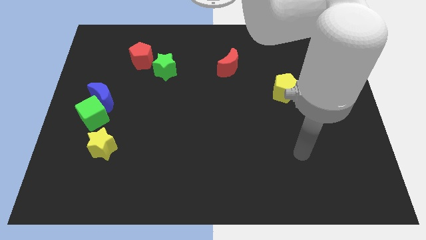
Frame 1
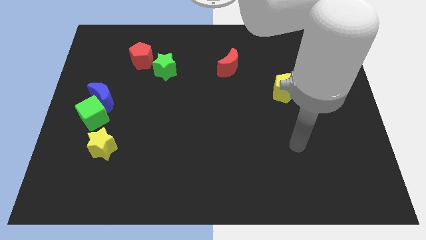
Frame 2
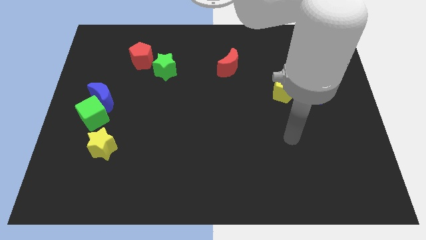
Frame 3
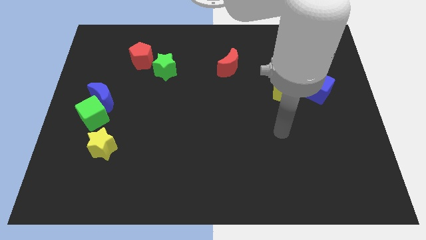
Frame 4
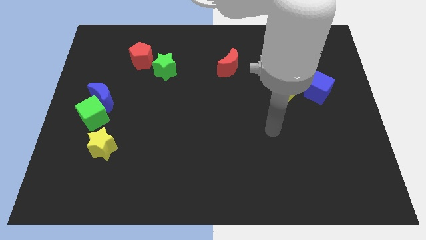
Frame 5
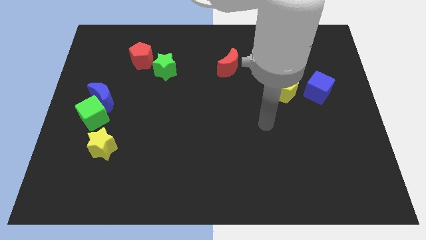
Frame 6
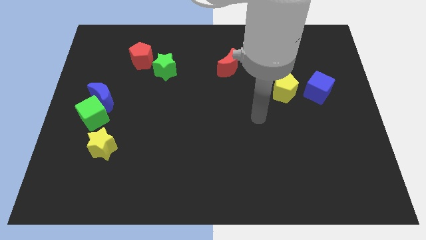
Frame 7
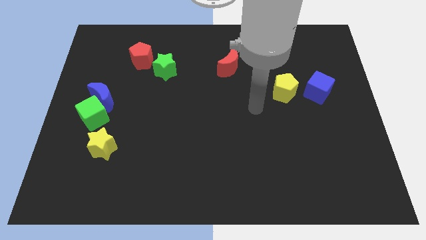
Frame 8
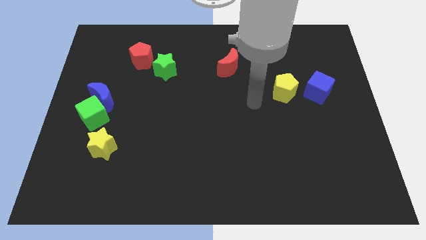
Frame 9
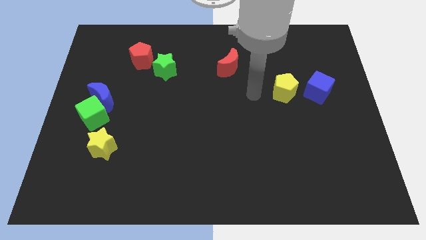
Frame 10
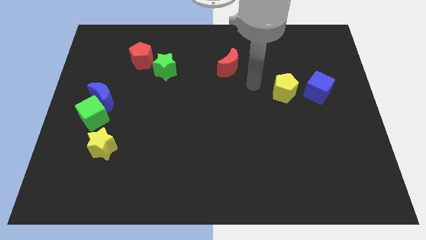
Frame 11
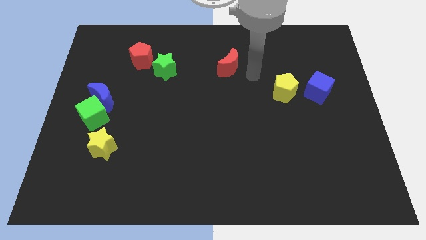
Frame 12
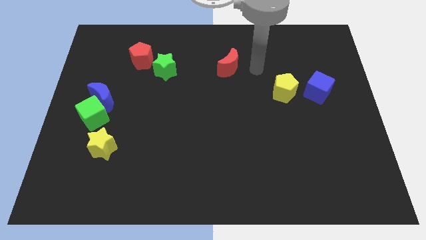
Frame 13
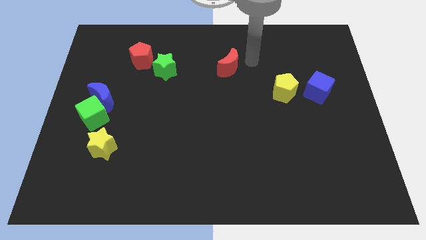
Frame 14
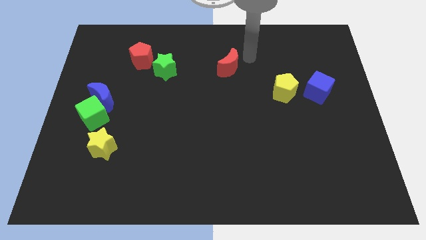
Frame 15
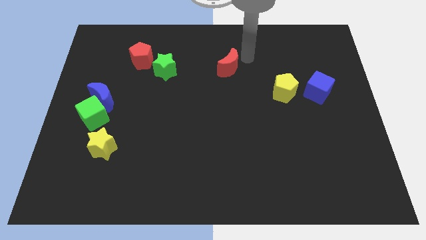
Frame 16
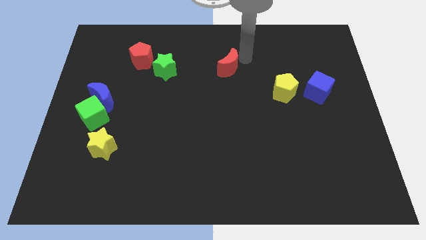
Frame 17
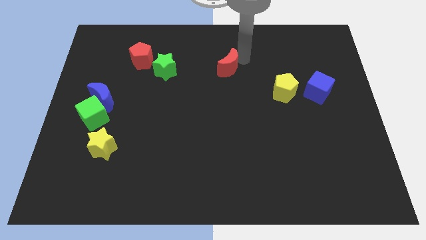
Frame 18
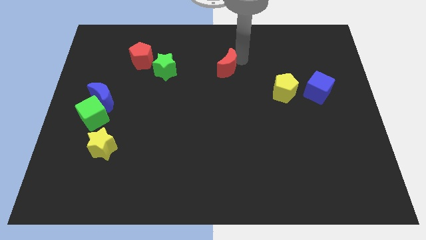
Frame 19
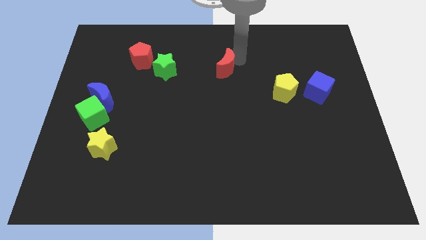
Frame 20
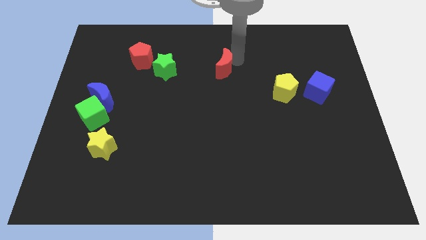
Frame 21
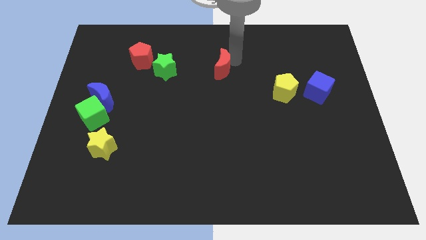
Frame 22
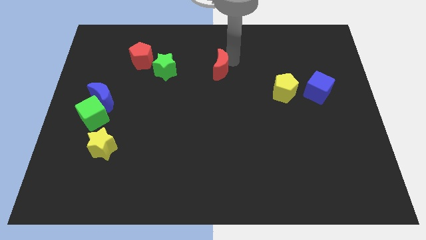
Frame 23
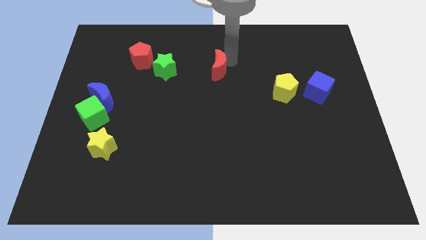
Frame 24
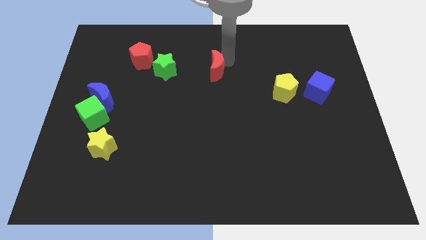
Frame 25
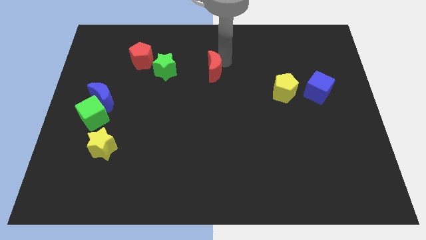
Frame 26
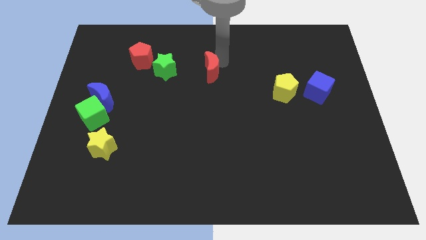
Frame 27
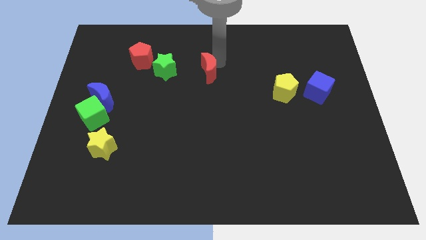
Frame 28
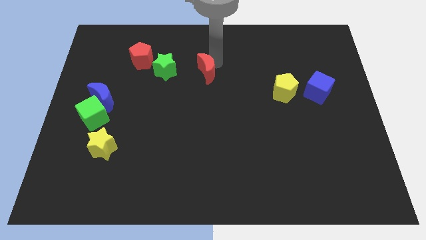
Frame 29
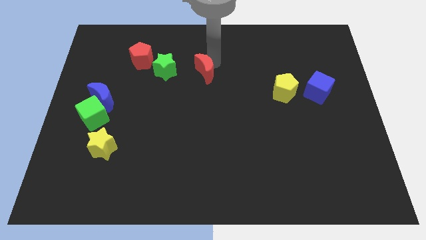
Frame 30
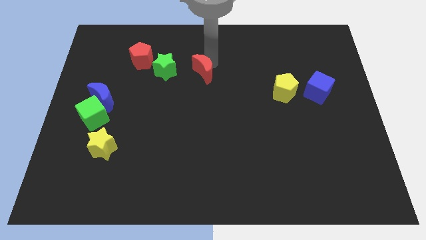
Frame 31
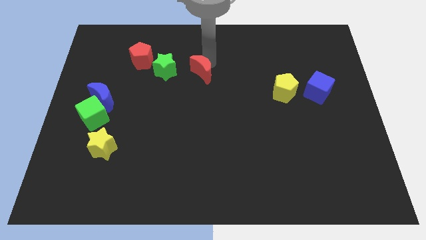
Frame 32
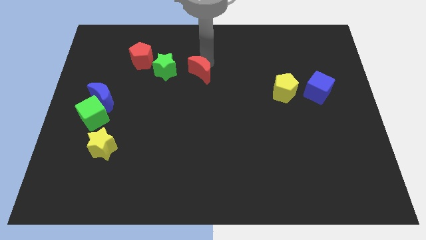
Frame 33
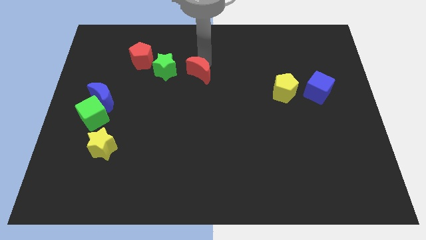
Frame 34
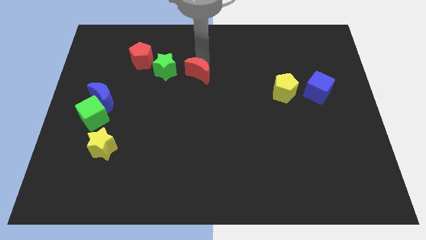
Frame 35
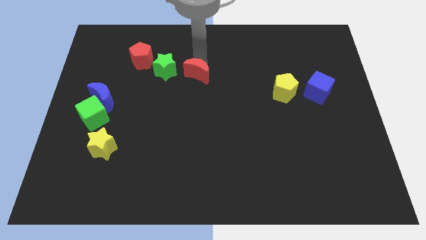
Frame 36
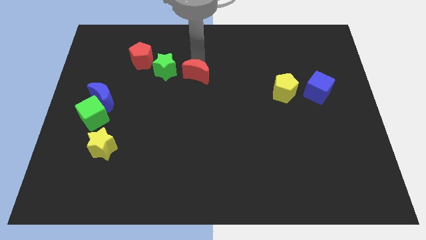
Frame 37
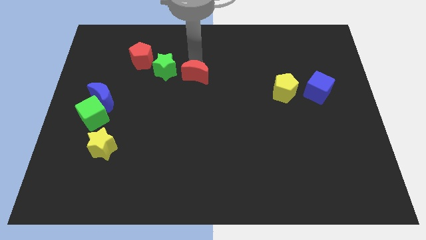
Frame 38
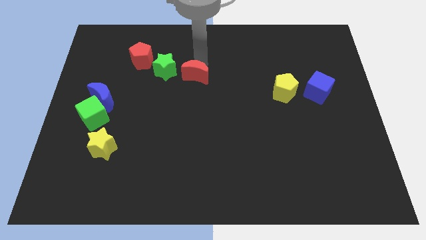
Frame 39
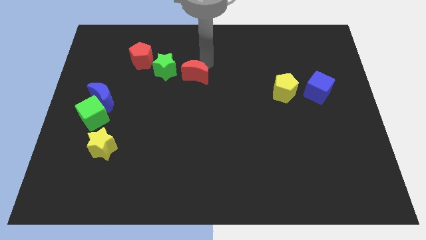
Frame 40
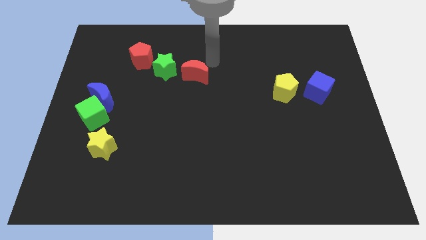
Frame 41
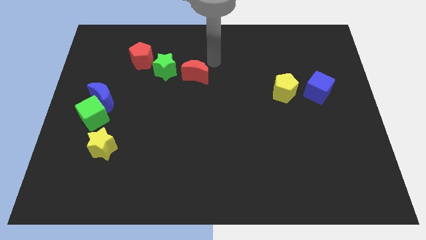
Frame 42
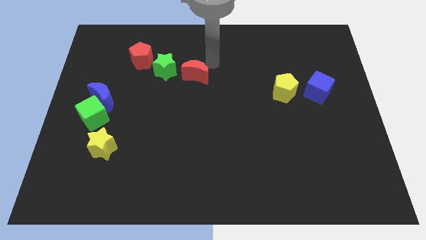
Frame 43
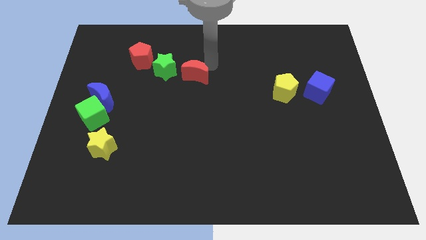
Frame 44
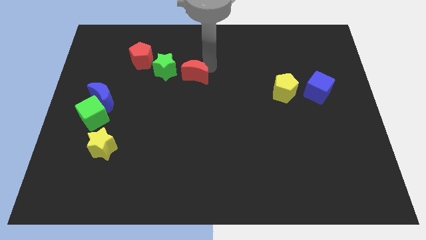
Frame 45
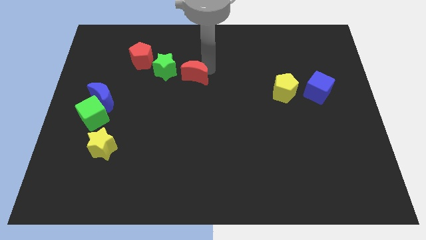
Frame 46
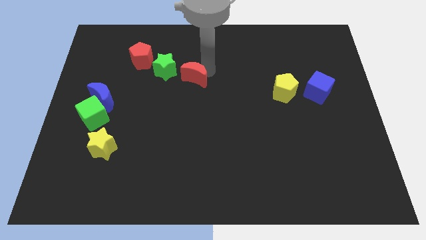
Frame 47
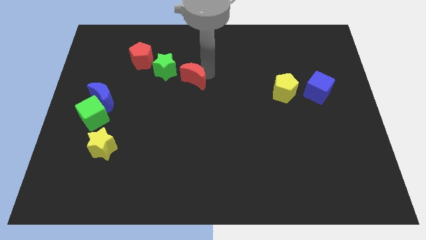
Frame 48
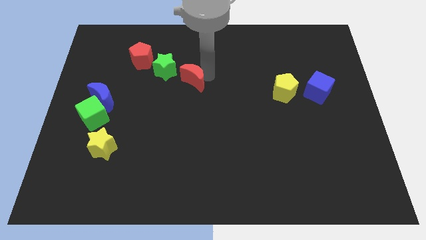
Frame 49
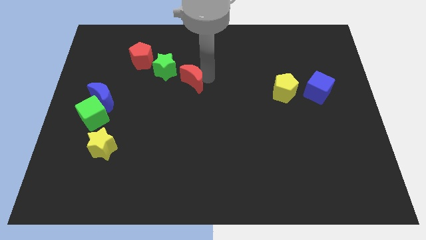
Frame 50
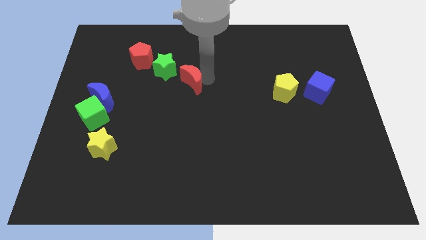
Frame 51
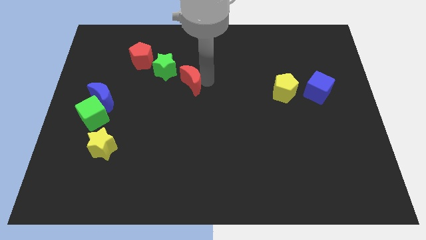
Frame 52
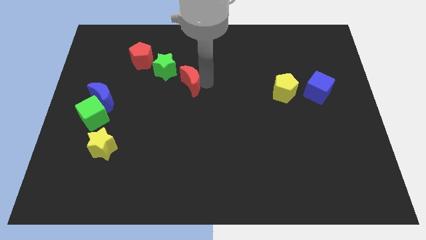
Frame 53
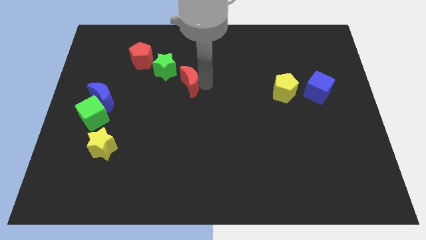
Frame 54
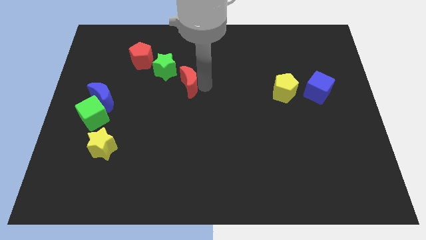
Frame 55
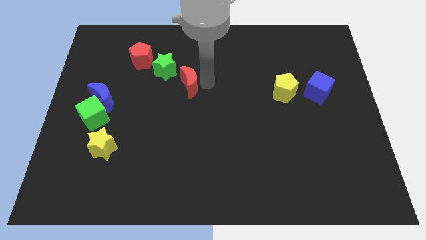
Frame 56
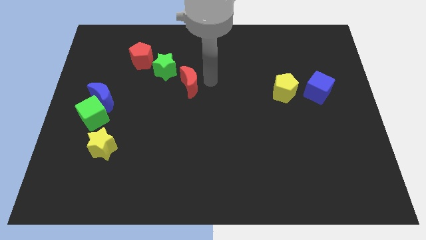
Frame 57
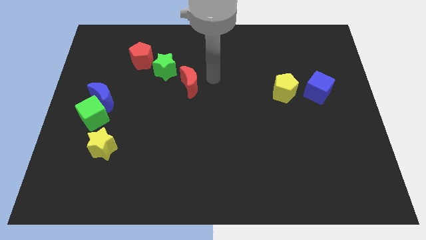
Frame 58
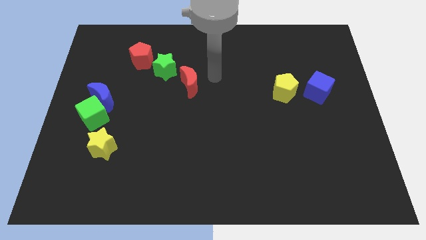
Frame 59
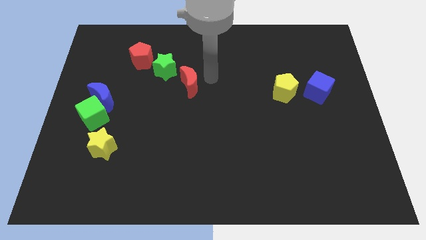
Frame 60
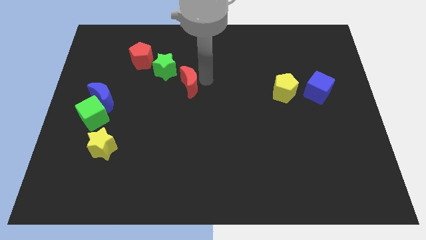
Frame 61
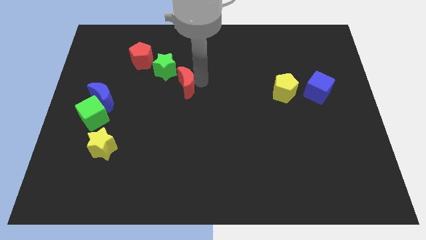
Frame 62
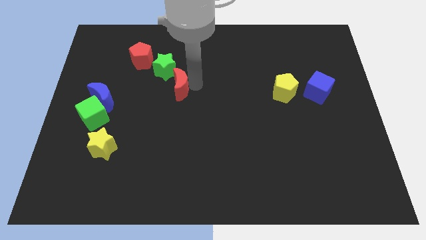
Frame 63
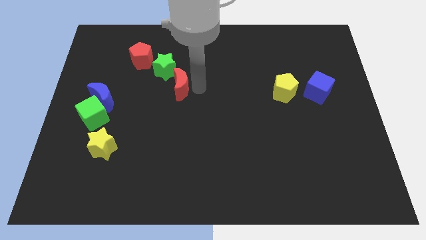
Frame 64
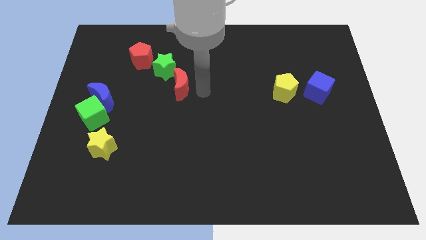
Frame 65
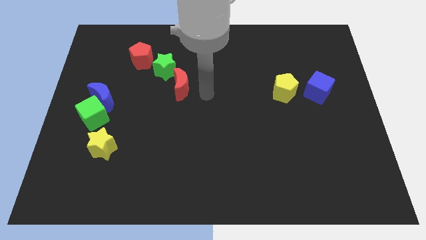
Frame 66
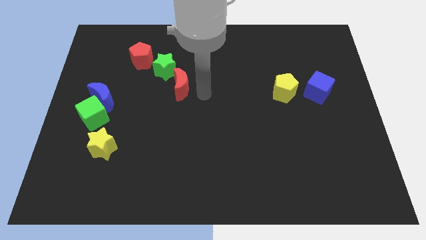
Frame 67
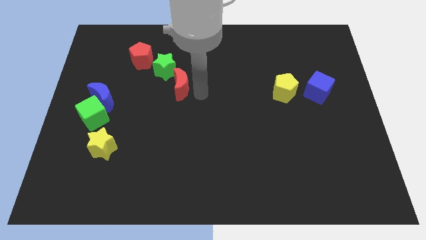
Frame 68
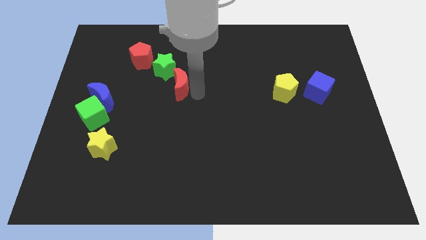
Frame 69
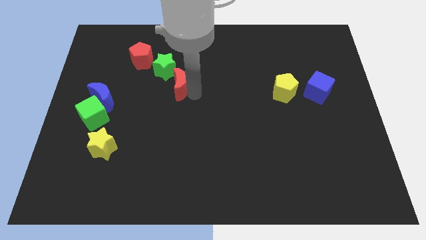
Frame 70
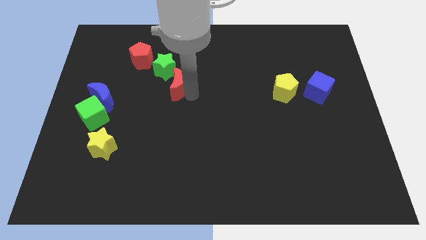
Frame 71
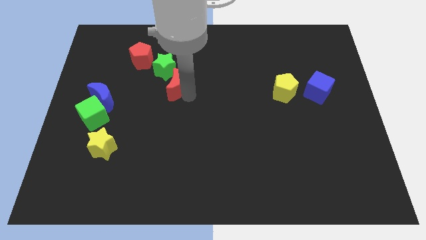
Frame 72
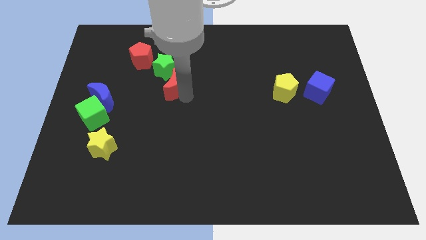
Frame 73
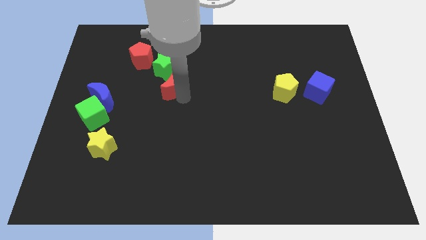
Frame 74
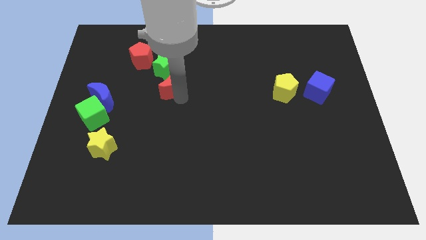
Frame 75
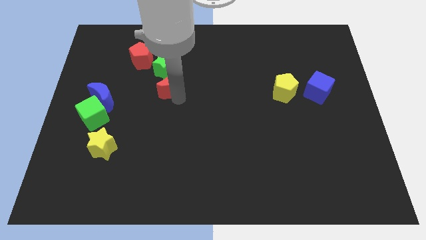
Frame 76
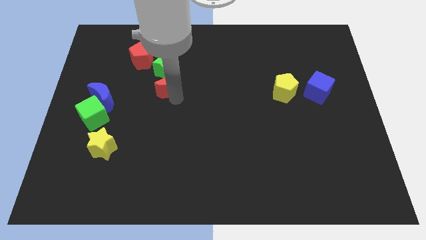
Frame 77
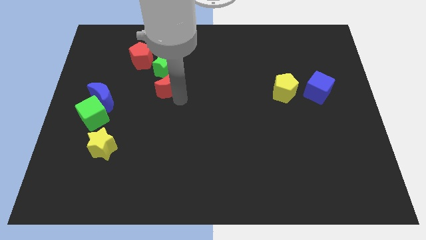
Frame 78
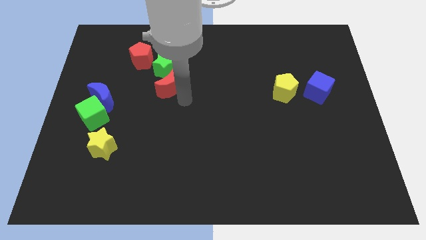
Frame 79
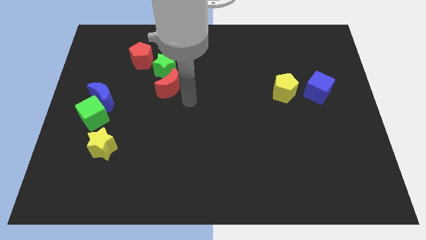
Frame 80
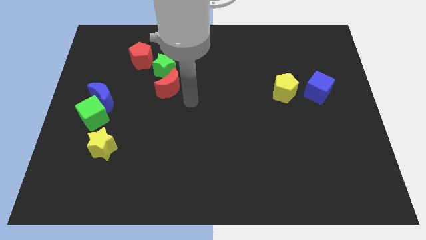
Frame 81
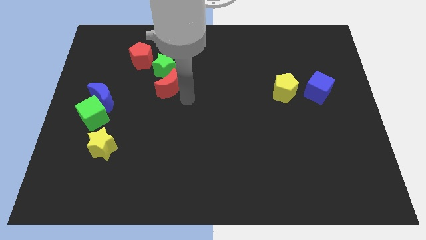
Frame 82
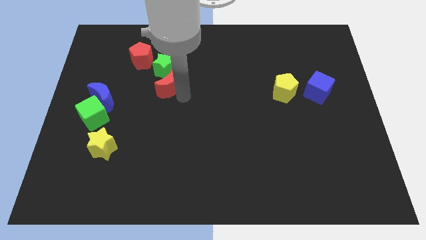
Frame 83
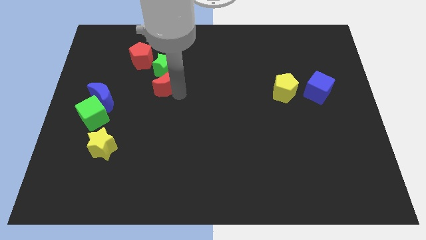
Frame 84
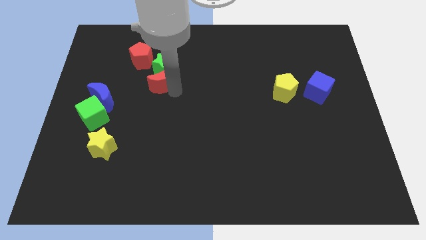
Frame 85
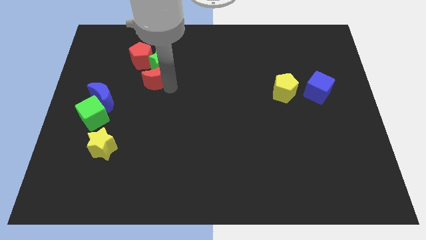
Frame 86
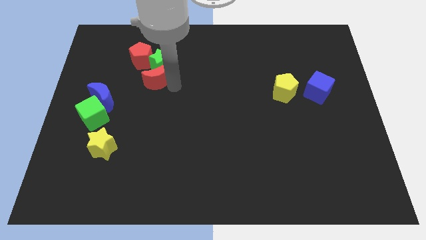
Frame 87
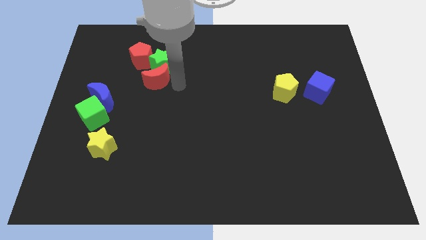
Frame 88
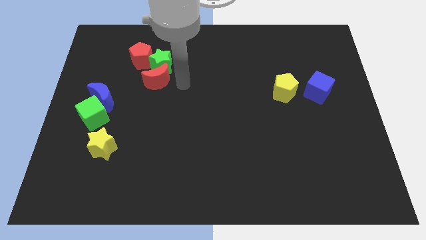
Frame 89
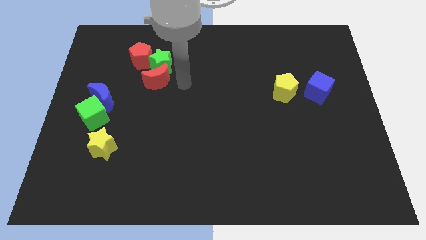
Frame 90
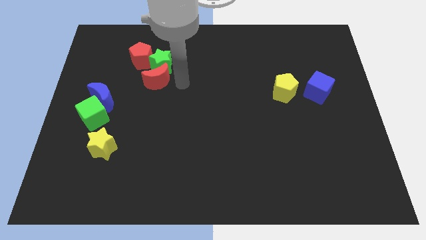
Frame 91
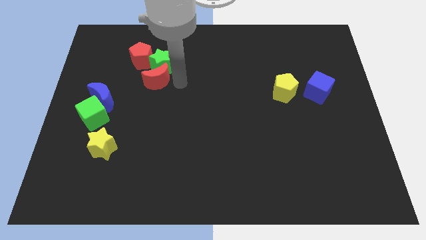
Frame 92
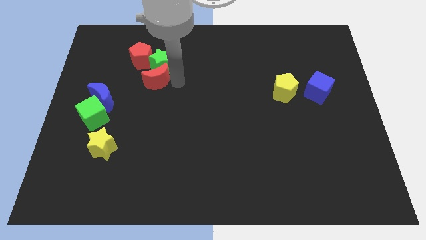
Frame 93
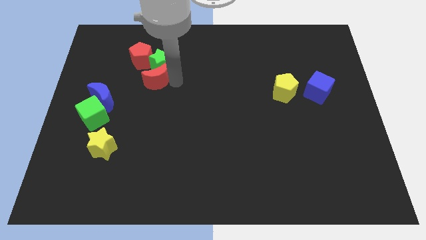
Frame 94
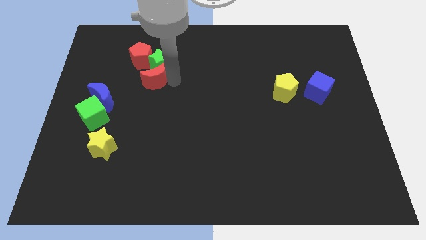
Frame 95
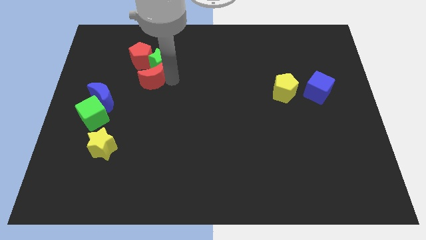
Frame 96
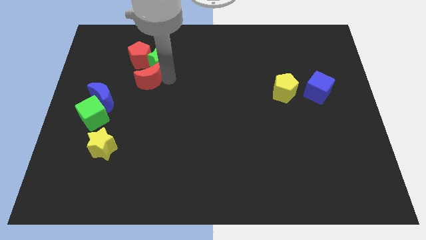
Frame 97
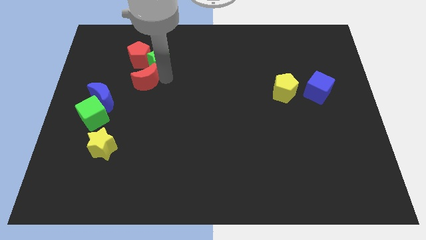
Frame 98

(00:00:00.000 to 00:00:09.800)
move the red moon to the left
